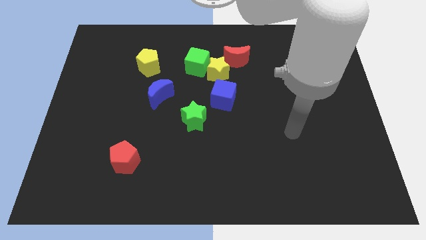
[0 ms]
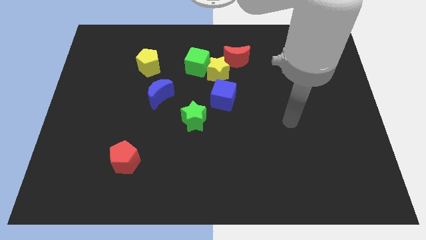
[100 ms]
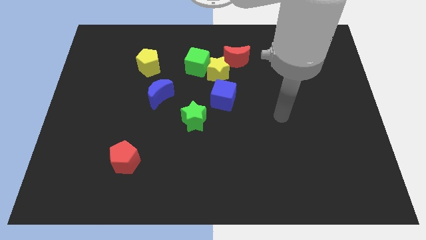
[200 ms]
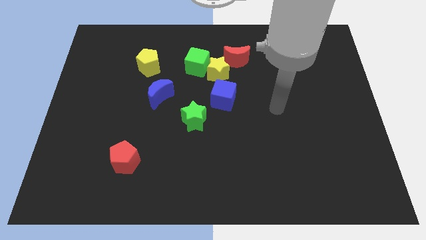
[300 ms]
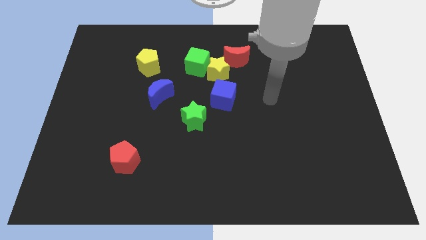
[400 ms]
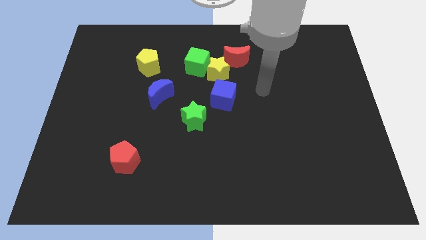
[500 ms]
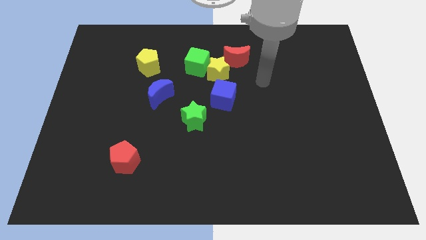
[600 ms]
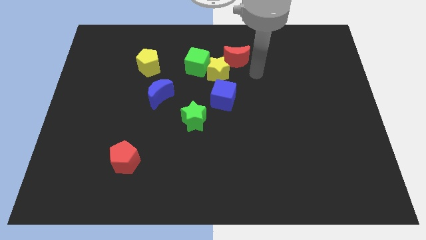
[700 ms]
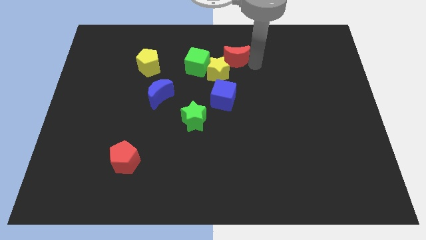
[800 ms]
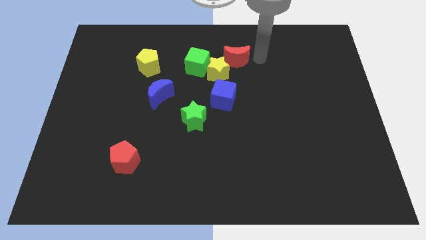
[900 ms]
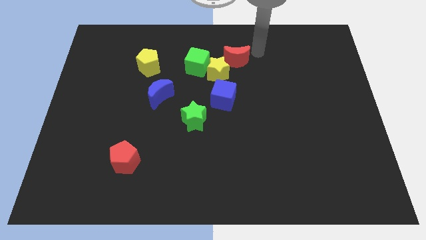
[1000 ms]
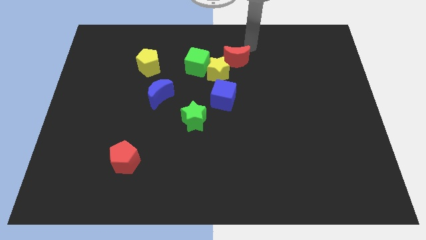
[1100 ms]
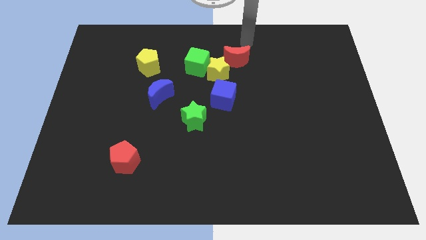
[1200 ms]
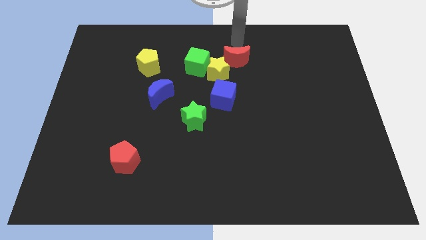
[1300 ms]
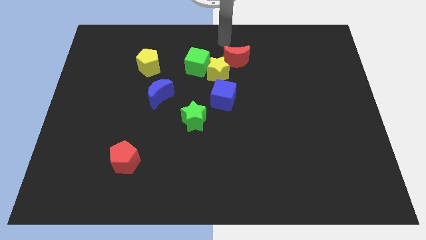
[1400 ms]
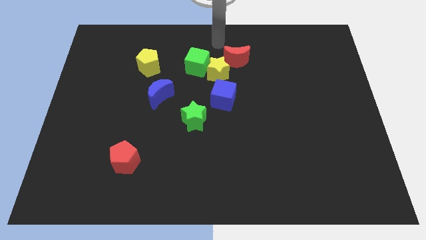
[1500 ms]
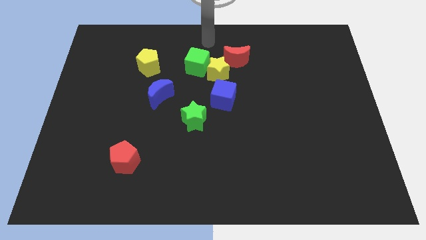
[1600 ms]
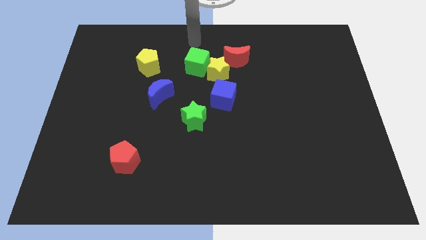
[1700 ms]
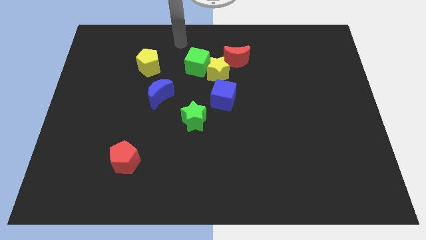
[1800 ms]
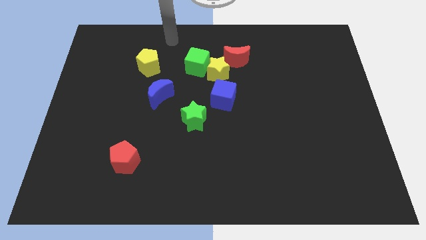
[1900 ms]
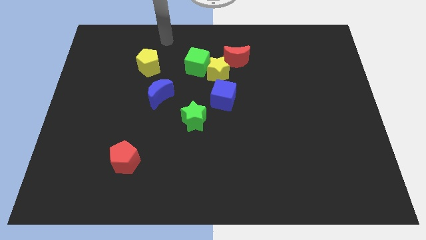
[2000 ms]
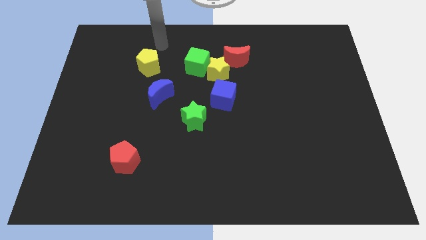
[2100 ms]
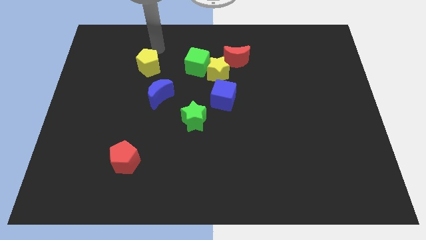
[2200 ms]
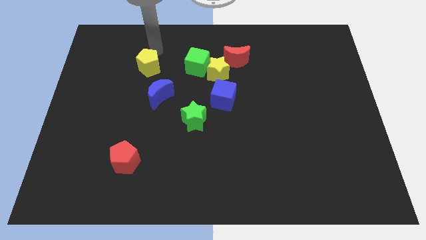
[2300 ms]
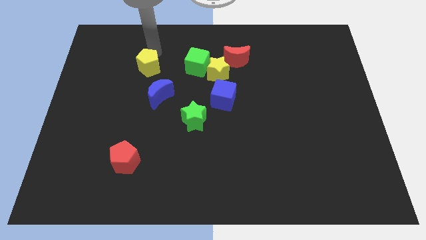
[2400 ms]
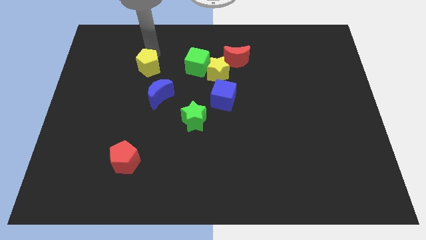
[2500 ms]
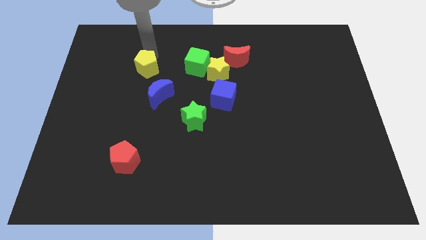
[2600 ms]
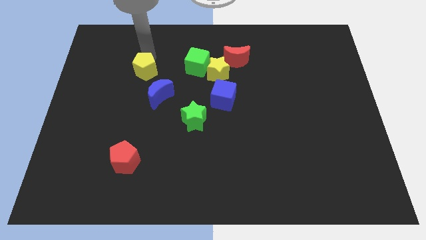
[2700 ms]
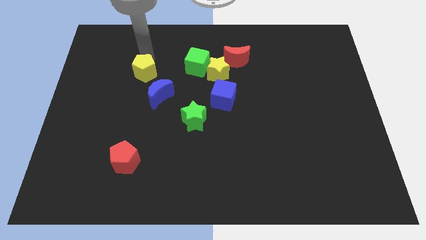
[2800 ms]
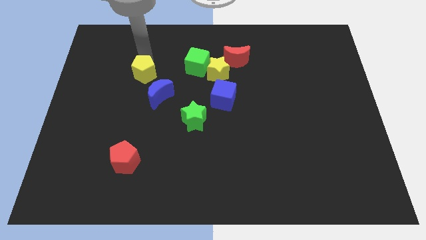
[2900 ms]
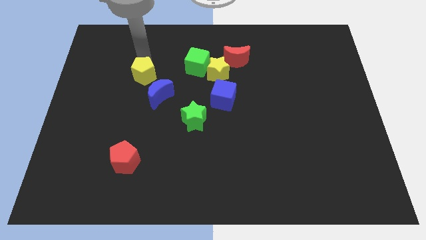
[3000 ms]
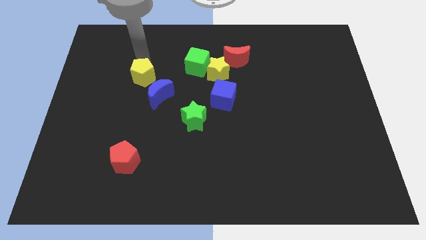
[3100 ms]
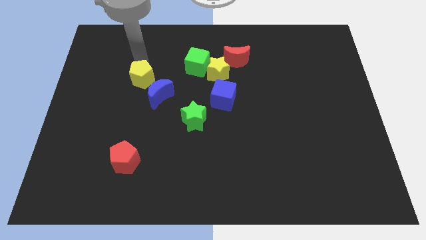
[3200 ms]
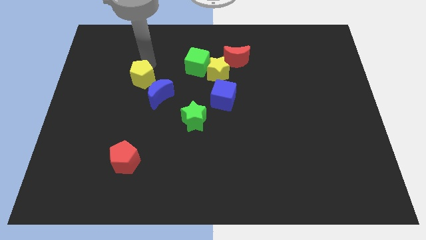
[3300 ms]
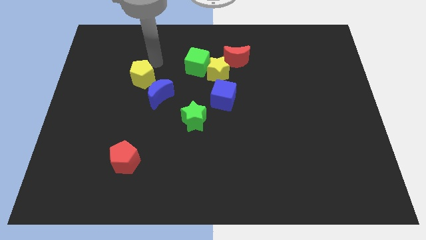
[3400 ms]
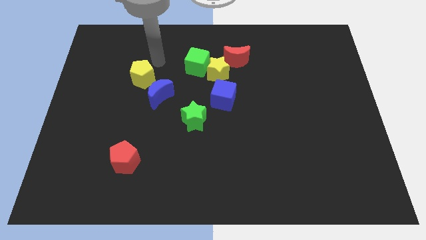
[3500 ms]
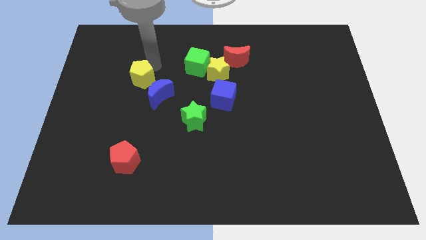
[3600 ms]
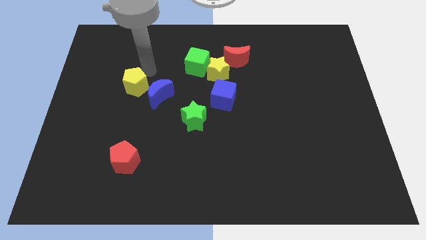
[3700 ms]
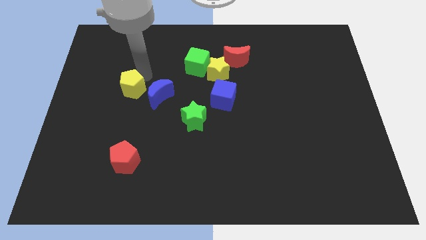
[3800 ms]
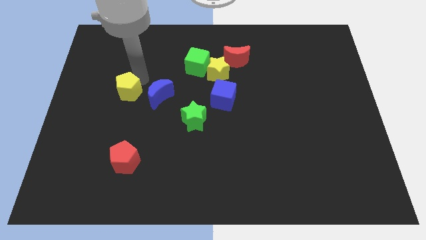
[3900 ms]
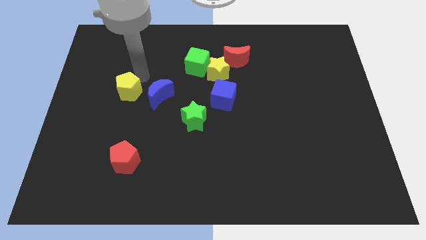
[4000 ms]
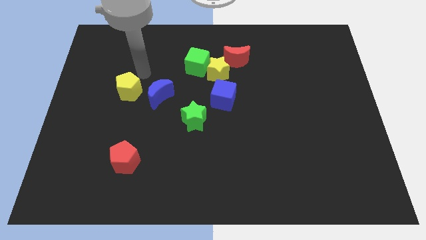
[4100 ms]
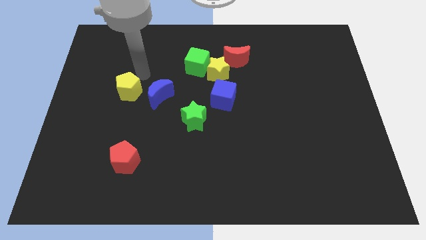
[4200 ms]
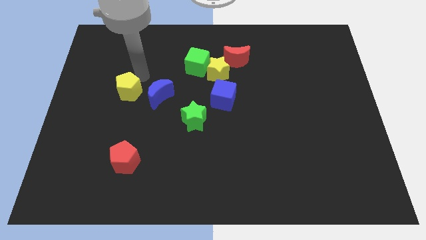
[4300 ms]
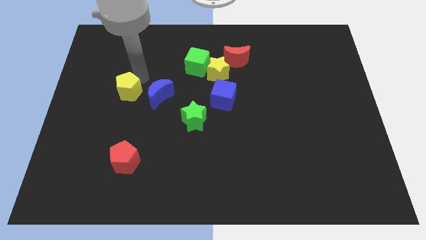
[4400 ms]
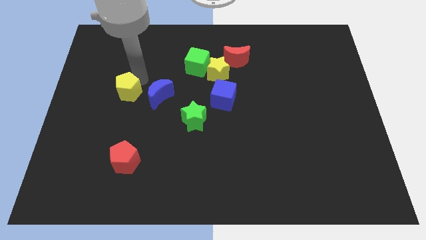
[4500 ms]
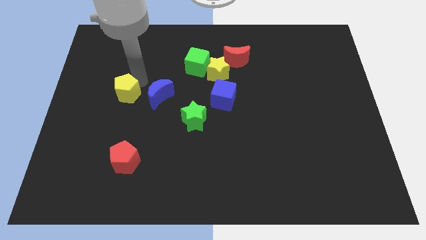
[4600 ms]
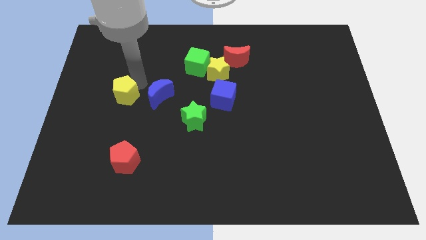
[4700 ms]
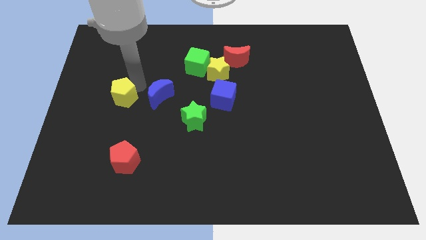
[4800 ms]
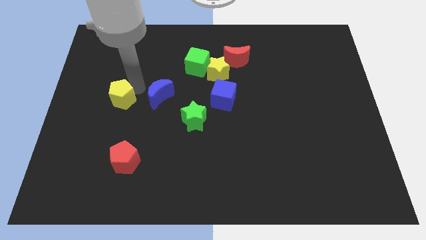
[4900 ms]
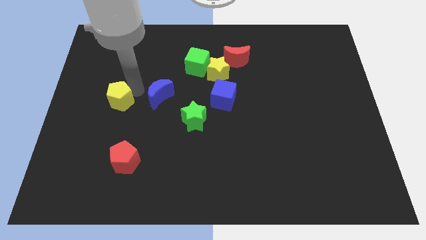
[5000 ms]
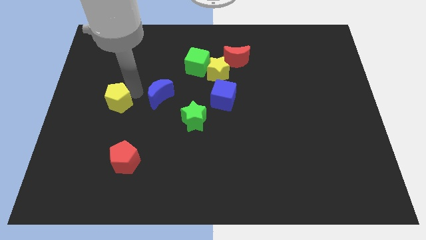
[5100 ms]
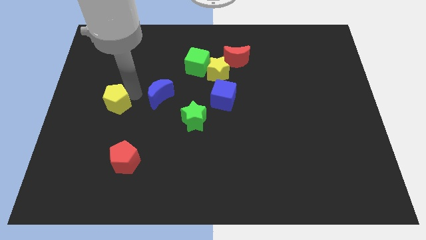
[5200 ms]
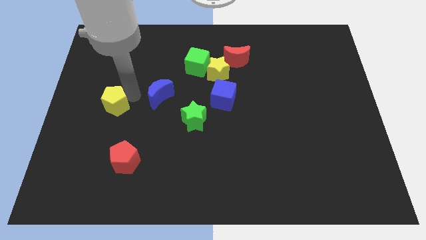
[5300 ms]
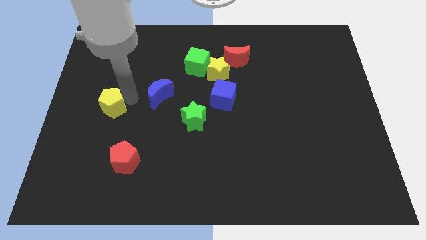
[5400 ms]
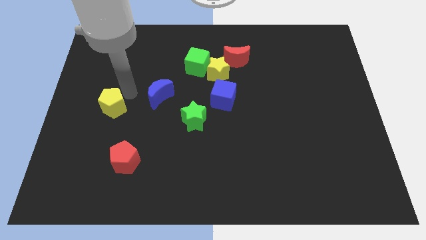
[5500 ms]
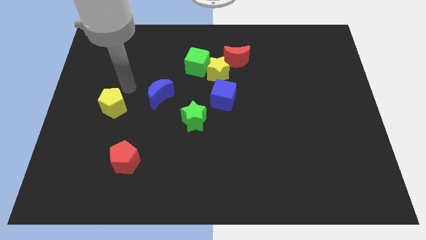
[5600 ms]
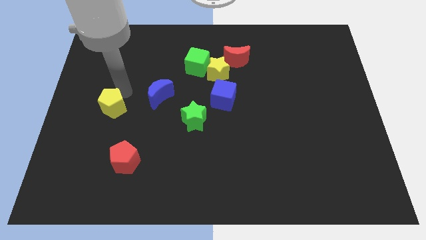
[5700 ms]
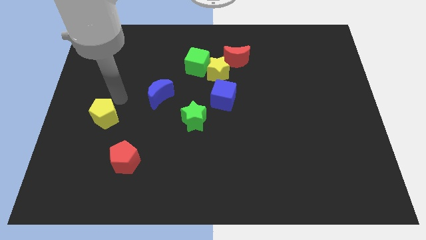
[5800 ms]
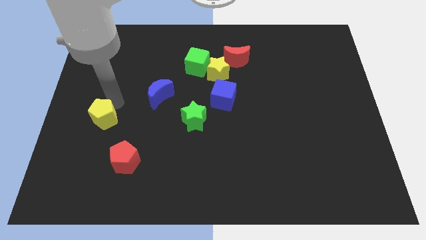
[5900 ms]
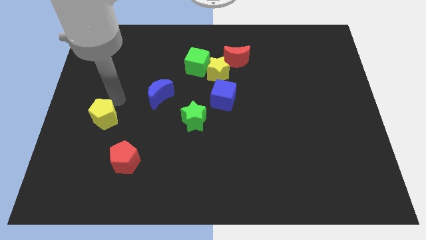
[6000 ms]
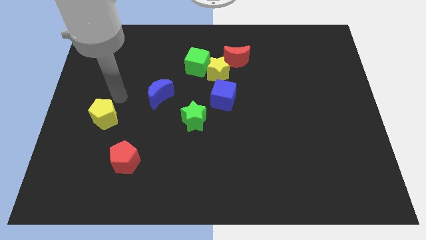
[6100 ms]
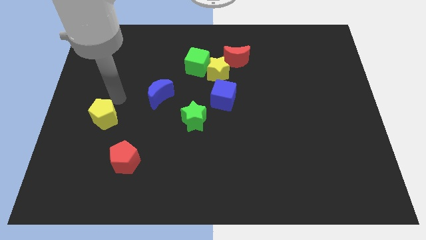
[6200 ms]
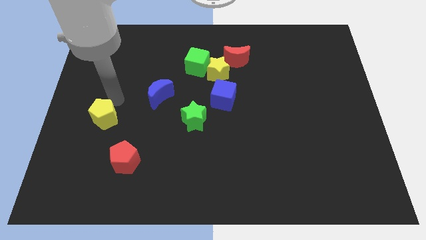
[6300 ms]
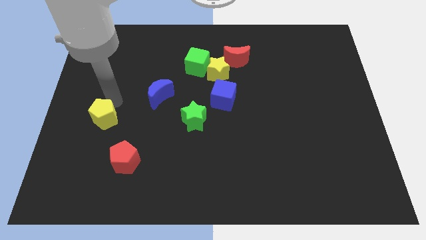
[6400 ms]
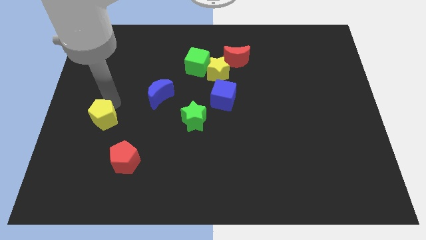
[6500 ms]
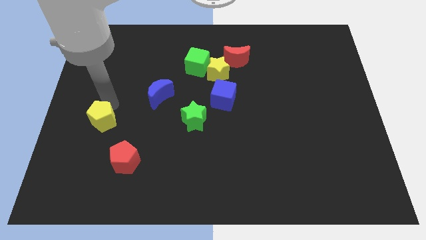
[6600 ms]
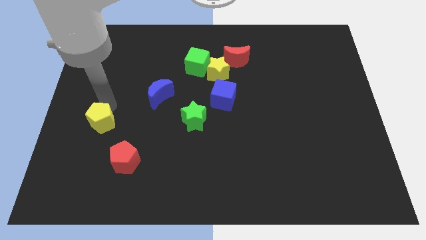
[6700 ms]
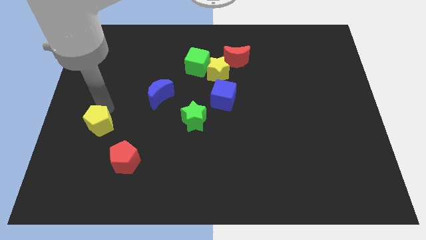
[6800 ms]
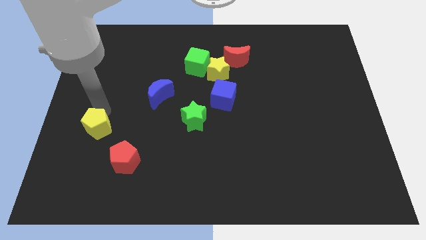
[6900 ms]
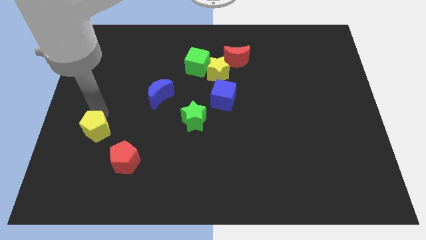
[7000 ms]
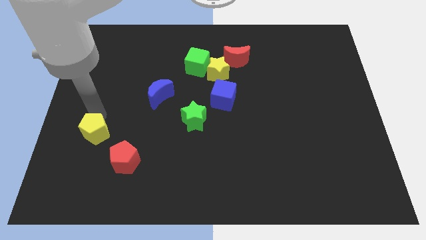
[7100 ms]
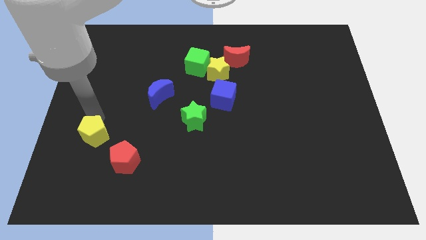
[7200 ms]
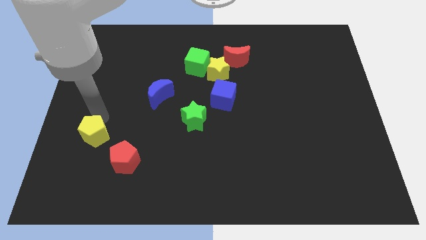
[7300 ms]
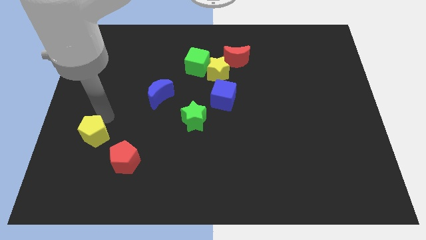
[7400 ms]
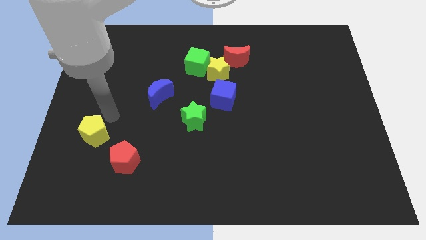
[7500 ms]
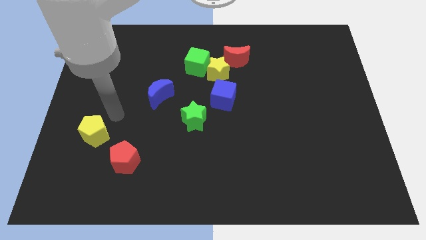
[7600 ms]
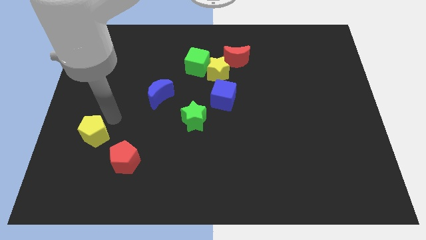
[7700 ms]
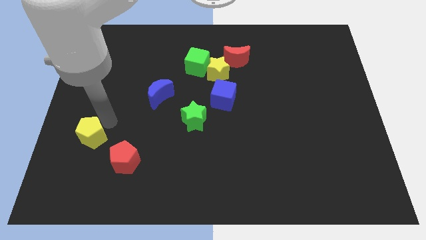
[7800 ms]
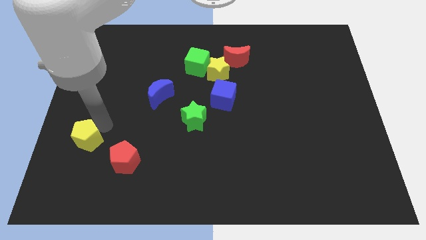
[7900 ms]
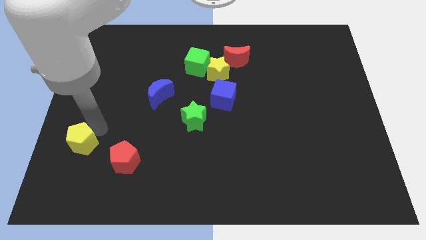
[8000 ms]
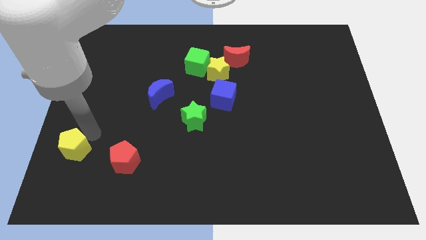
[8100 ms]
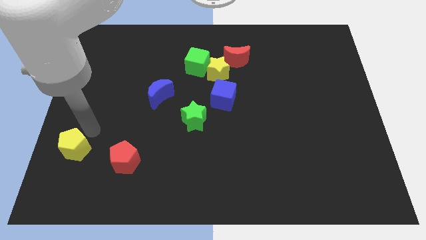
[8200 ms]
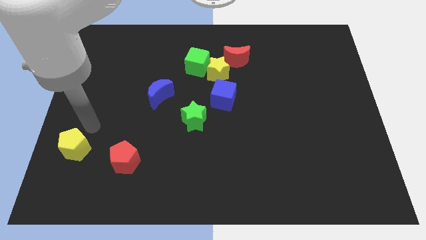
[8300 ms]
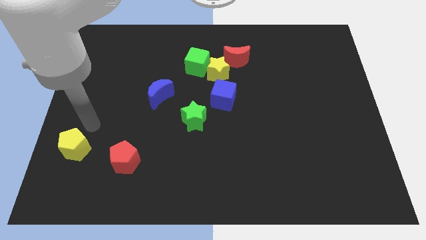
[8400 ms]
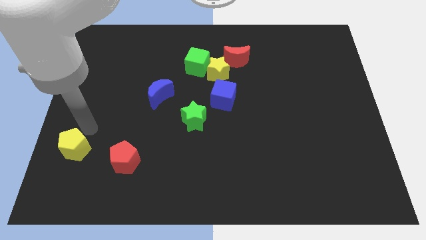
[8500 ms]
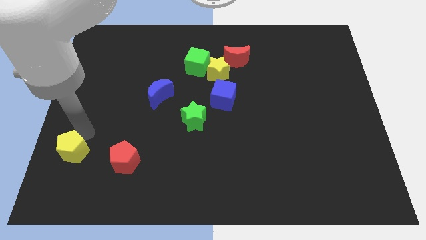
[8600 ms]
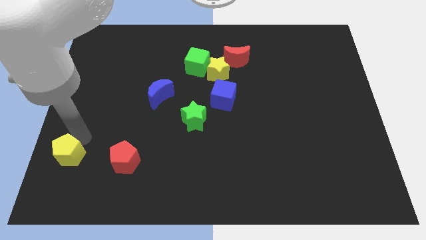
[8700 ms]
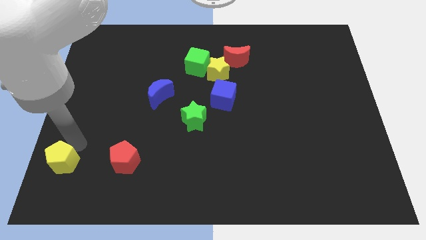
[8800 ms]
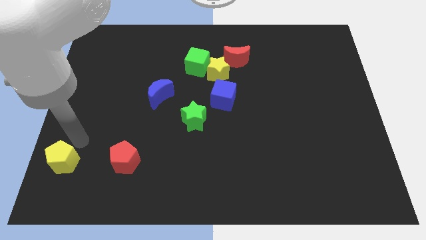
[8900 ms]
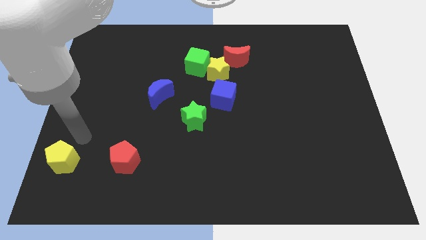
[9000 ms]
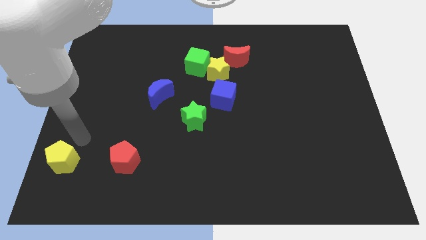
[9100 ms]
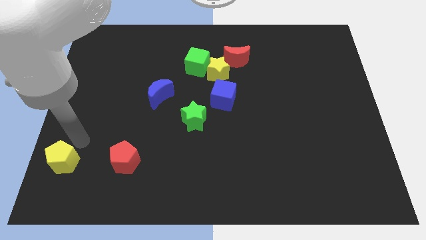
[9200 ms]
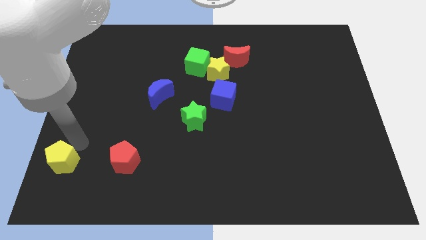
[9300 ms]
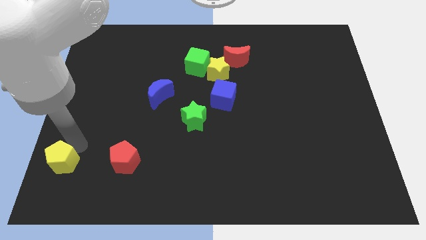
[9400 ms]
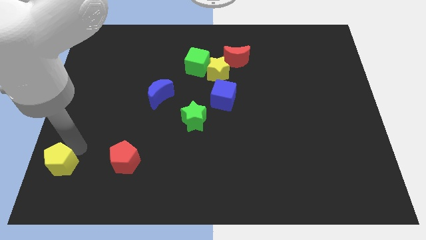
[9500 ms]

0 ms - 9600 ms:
slide the yellow pentagon to the lower left corner
